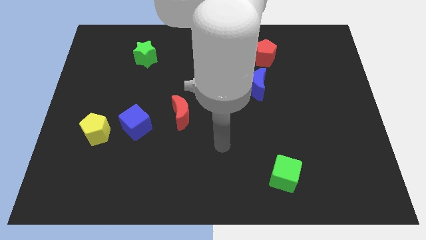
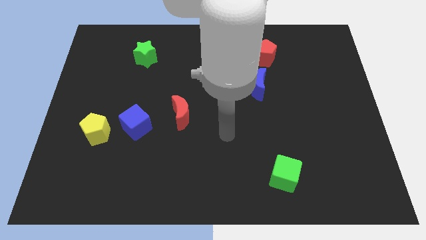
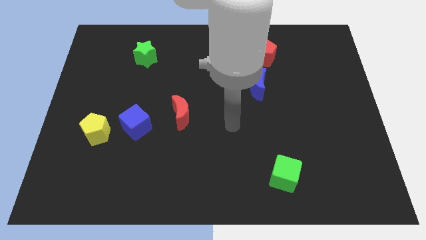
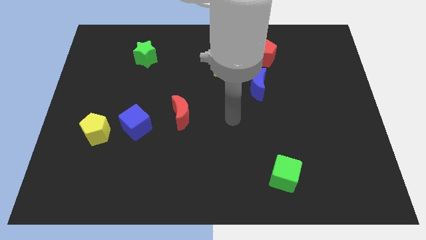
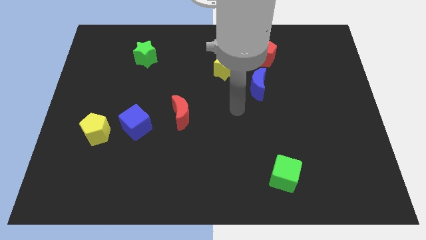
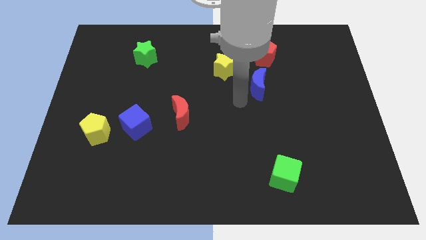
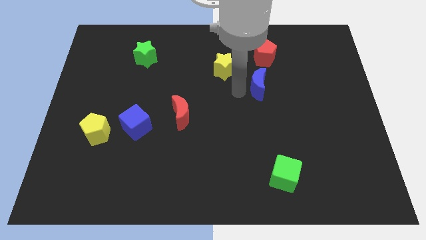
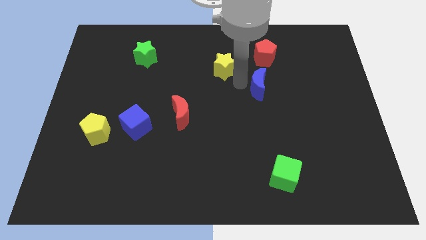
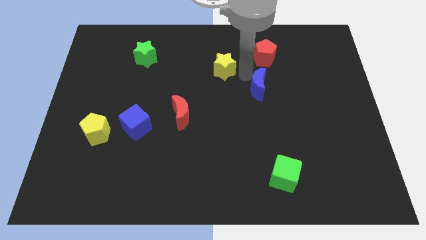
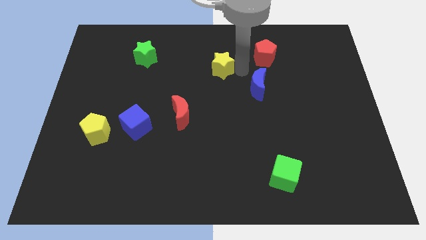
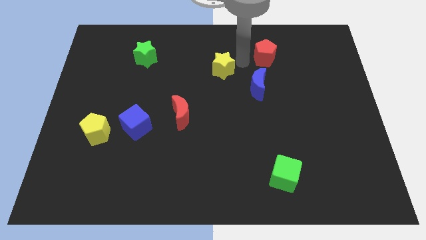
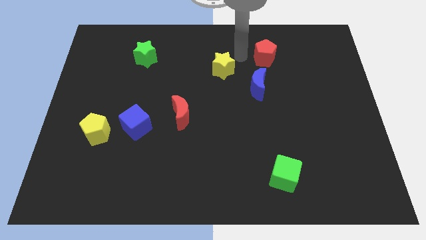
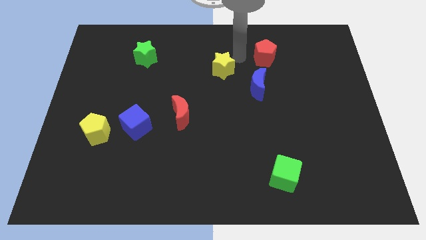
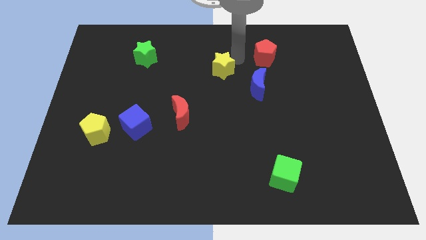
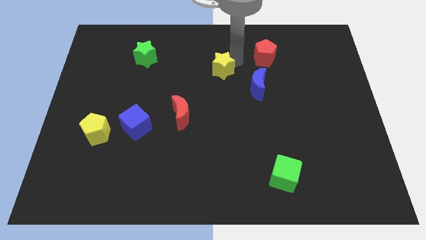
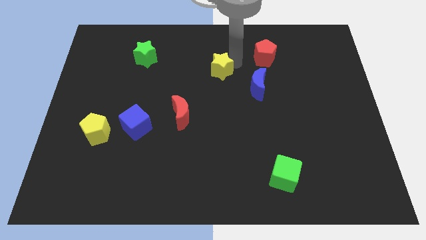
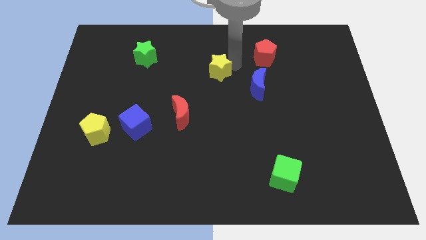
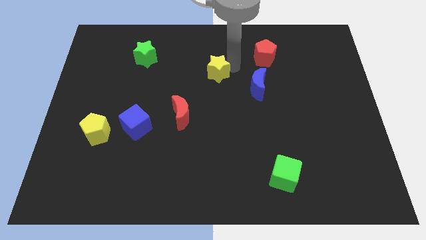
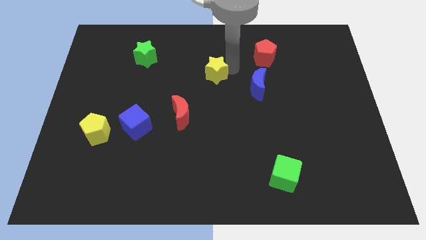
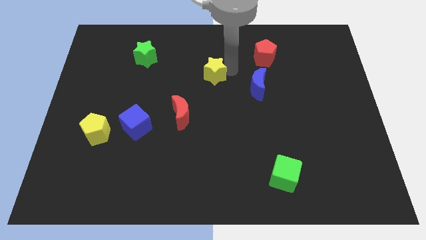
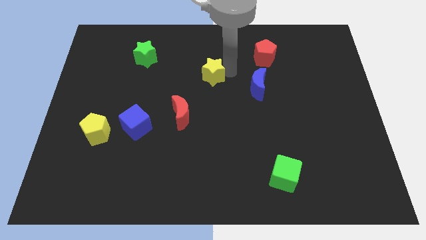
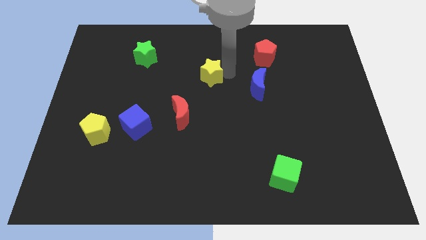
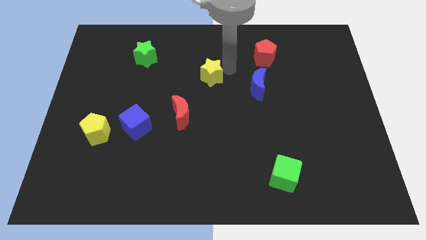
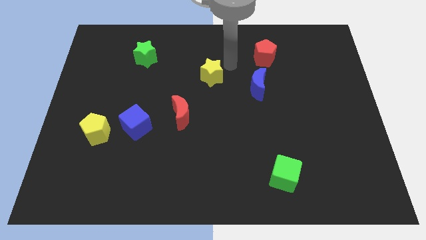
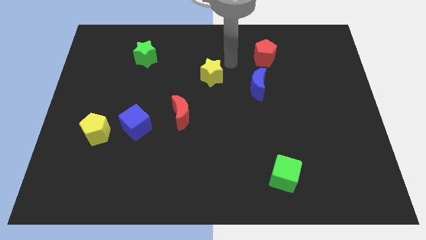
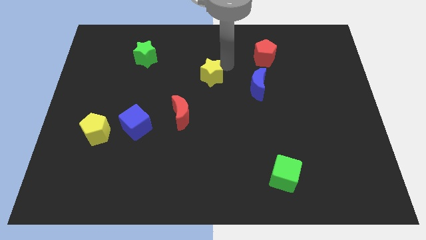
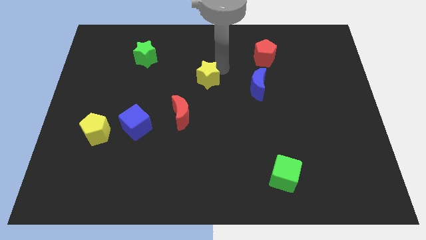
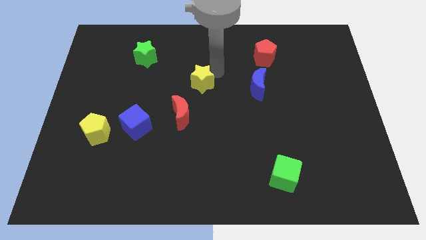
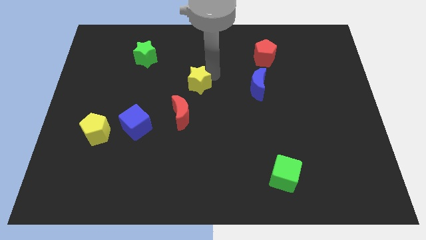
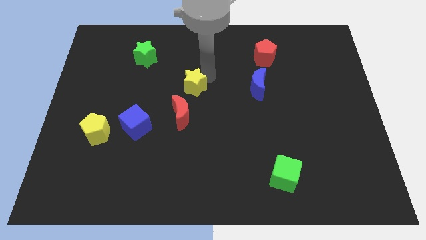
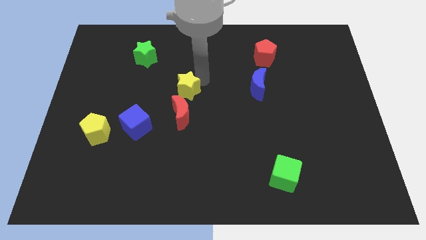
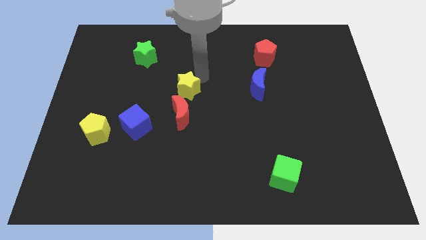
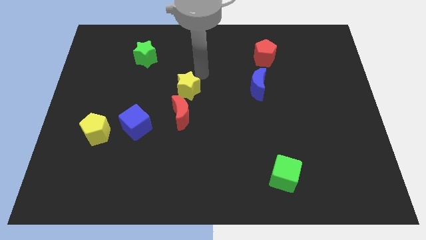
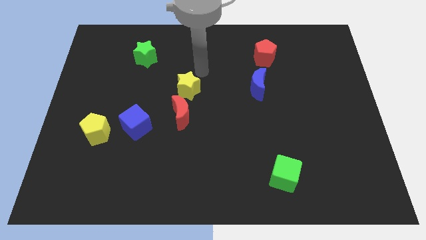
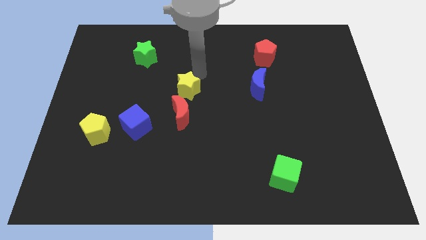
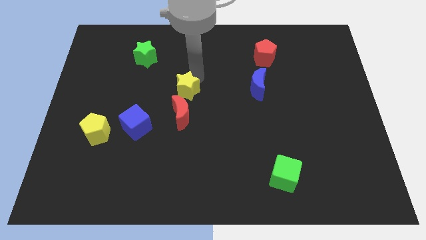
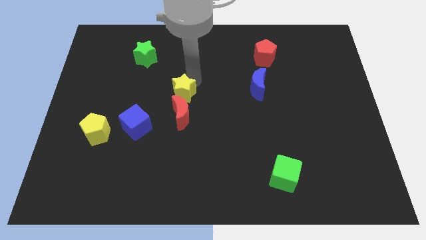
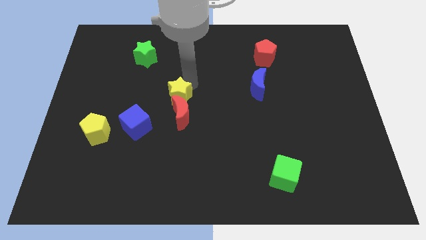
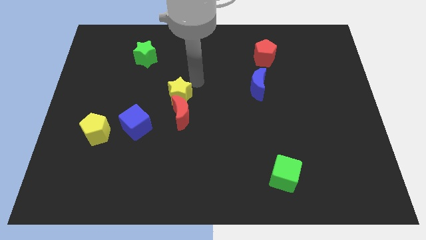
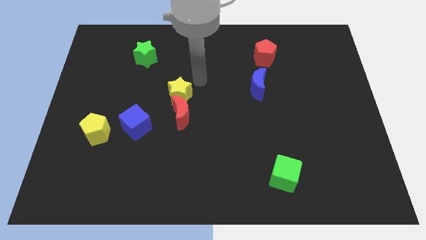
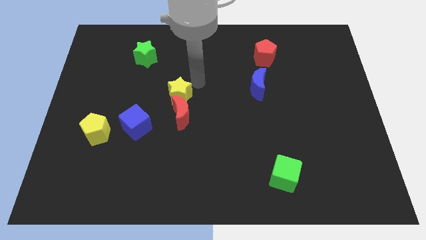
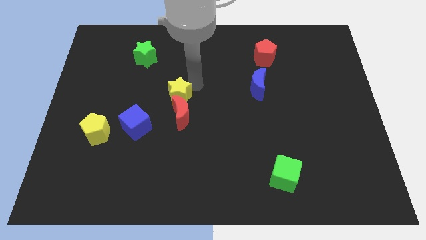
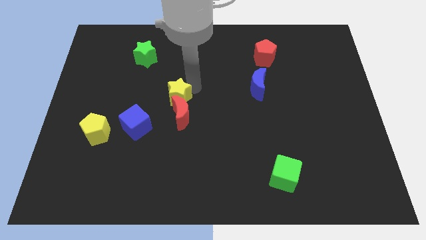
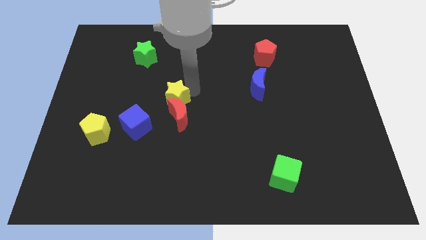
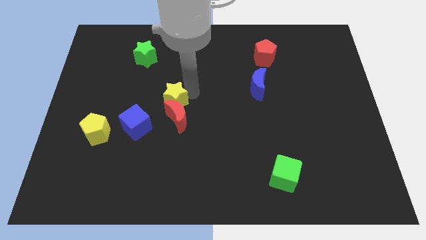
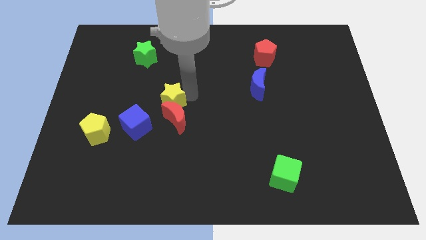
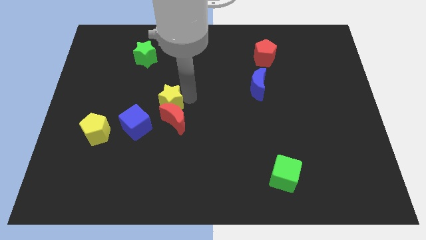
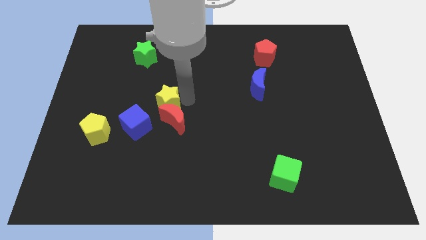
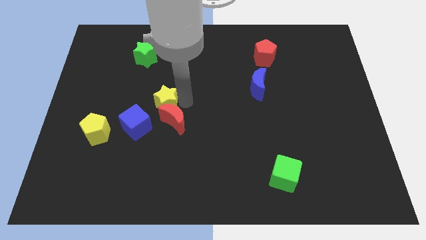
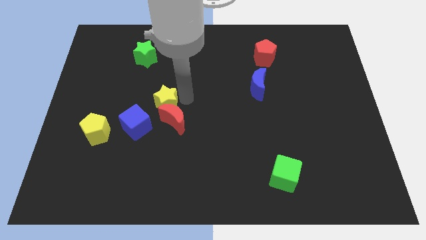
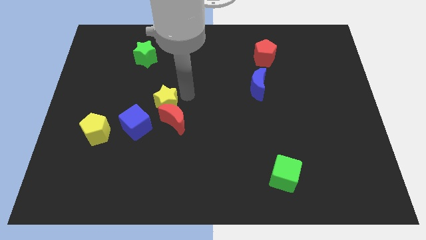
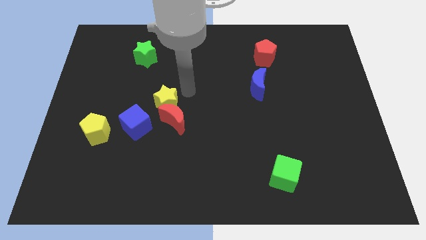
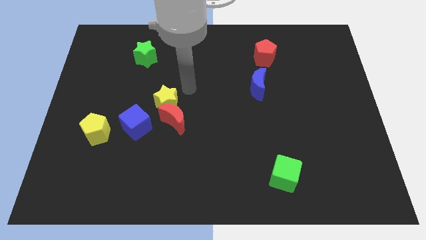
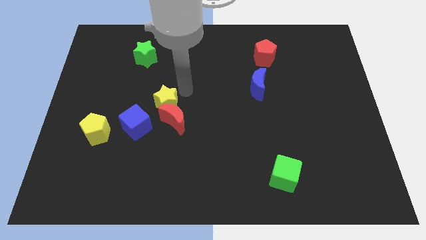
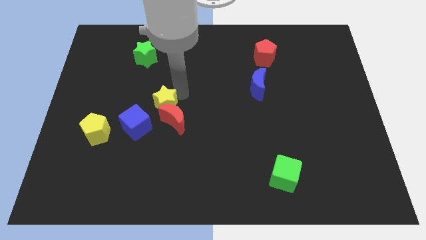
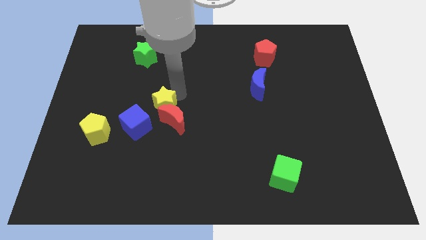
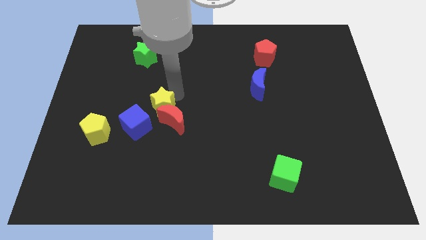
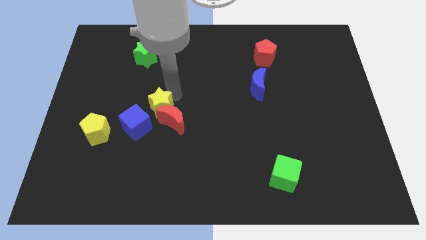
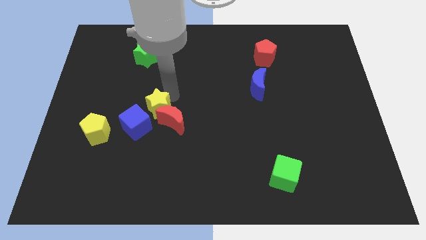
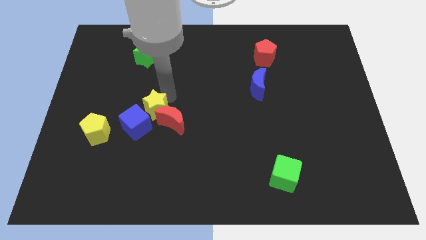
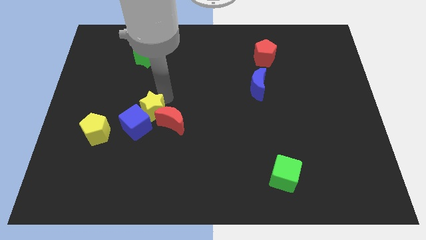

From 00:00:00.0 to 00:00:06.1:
move the yellow star next to the blue cube

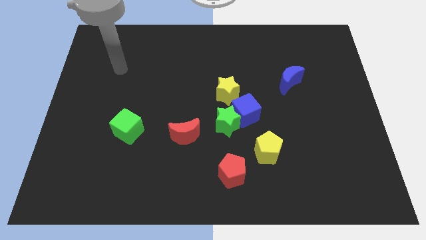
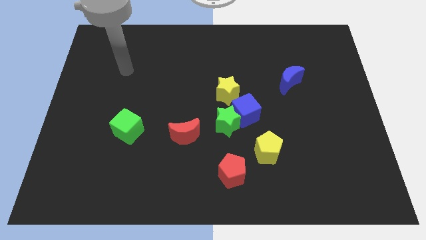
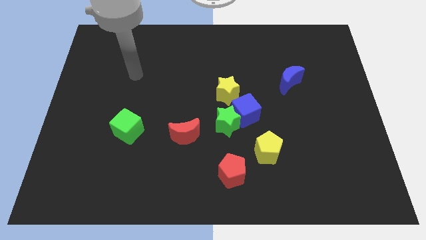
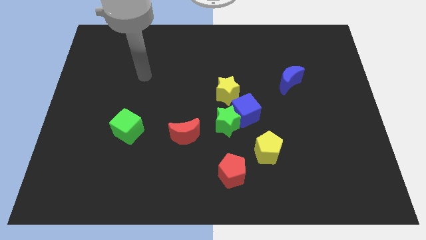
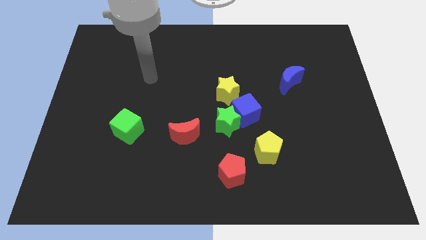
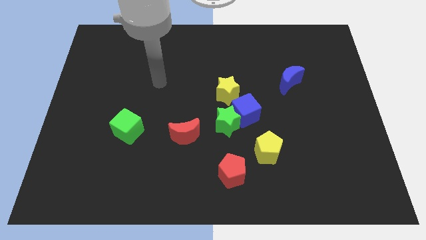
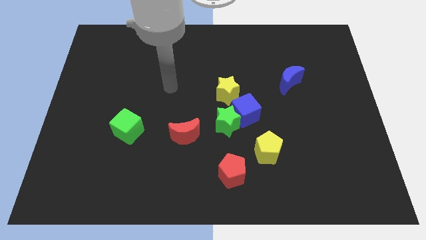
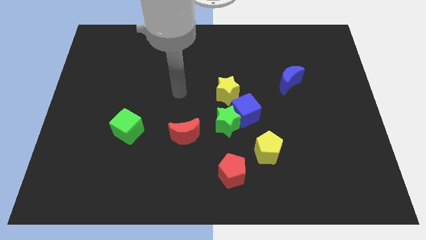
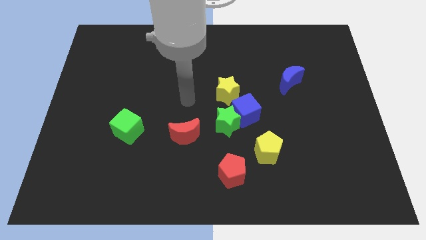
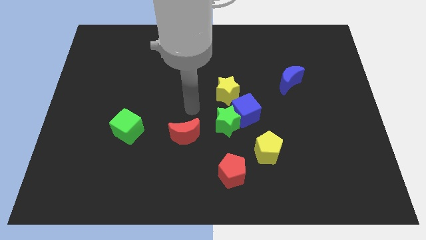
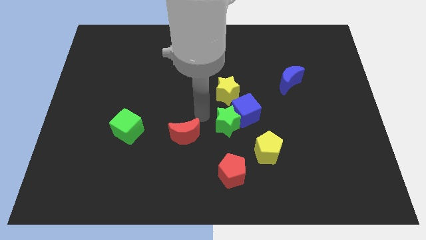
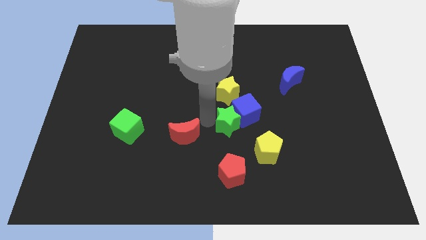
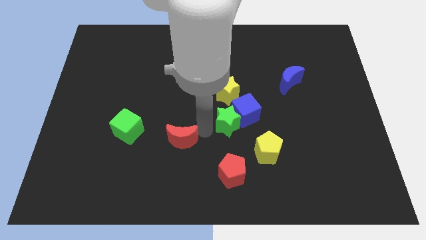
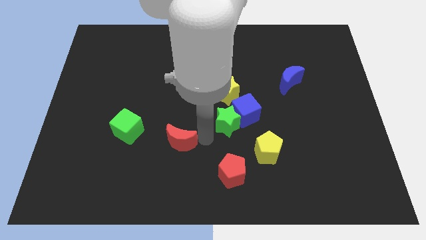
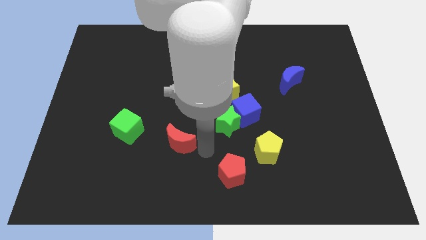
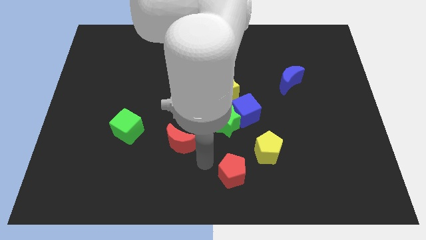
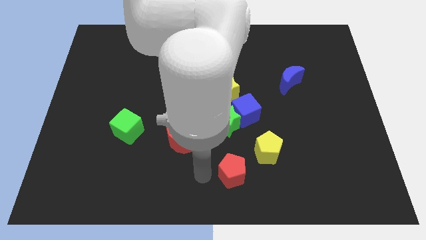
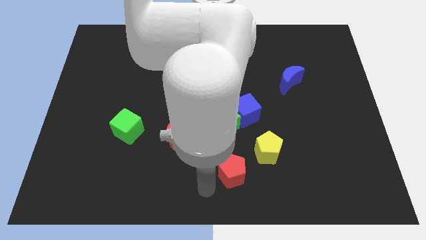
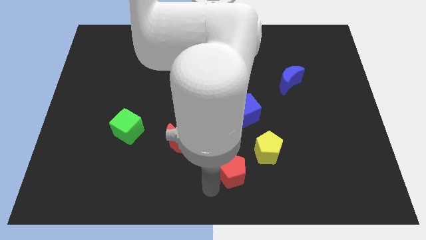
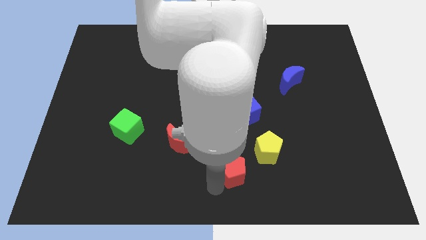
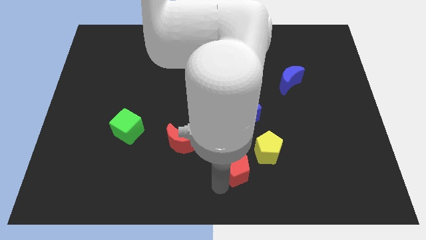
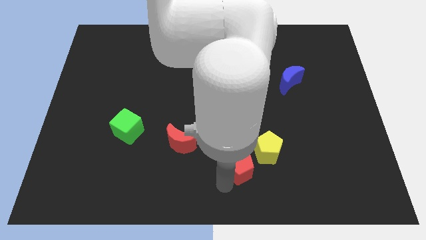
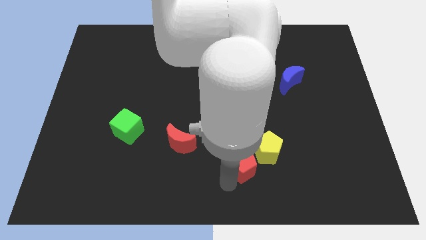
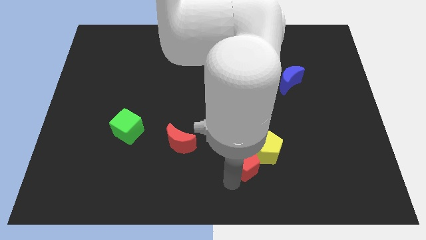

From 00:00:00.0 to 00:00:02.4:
slide the red pentagon to the yellow pentagon
